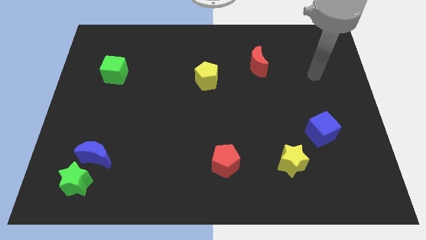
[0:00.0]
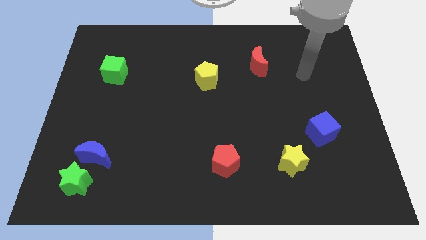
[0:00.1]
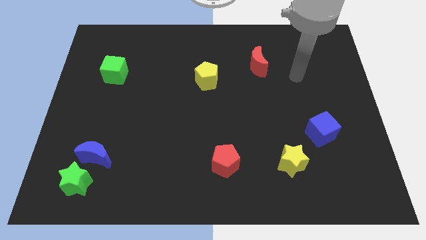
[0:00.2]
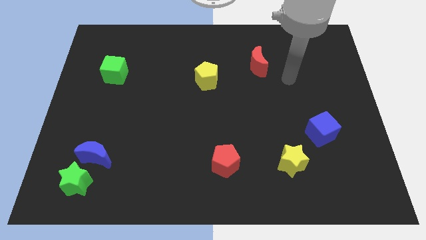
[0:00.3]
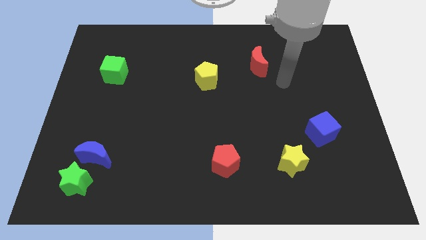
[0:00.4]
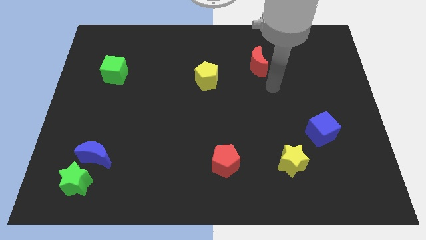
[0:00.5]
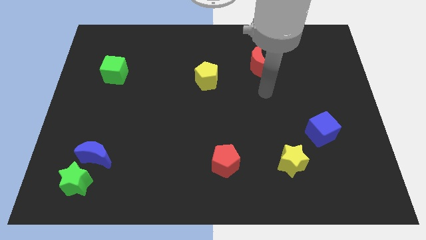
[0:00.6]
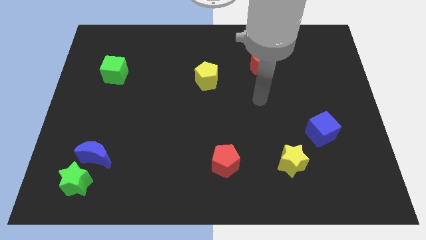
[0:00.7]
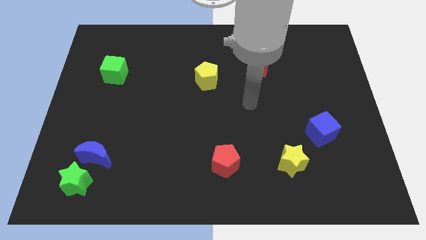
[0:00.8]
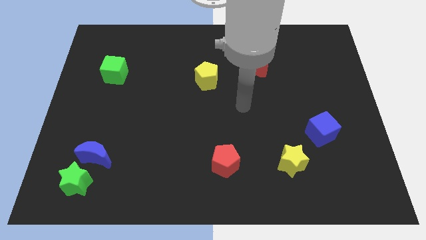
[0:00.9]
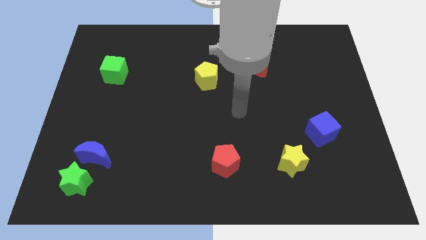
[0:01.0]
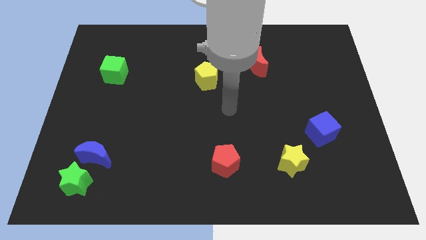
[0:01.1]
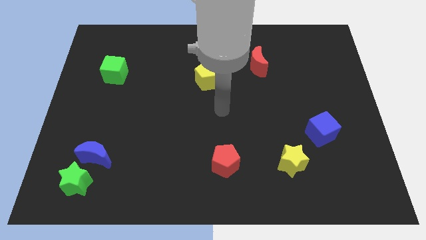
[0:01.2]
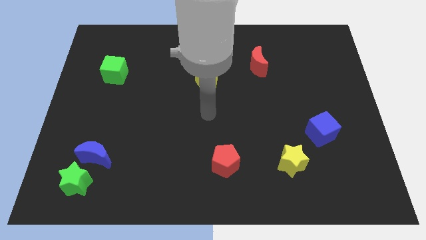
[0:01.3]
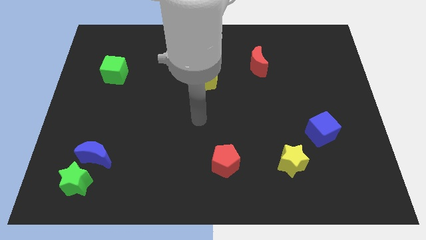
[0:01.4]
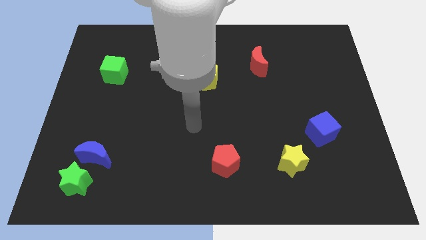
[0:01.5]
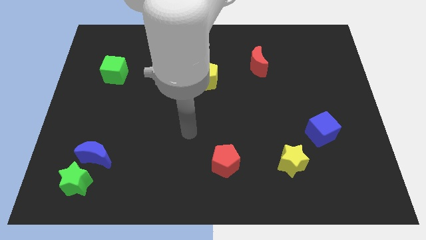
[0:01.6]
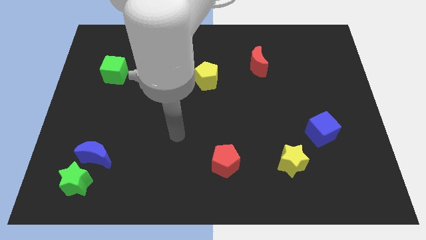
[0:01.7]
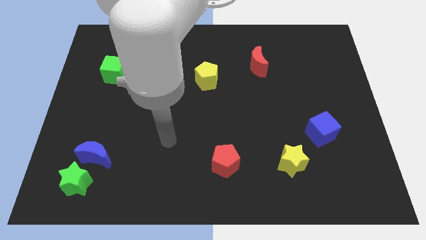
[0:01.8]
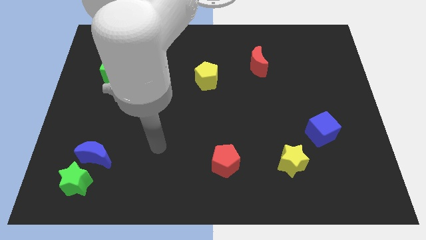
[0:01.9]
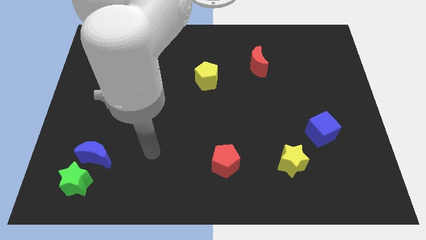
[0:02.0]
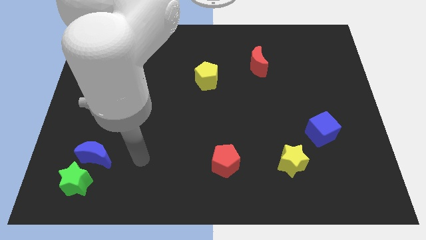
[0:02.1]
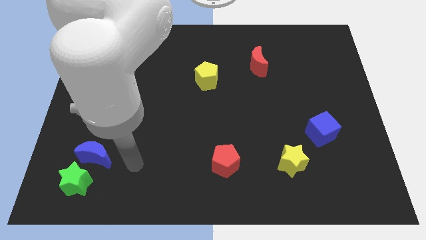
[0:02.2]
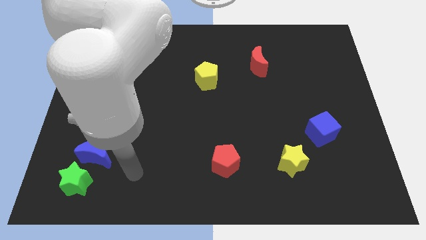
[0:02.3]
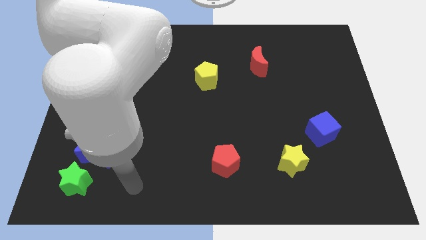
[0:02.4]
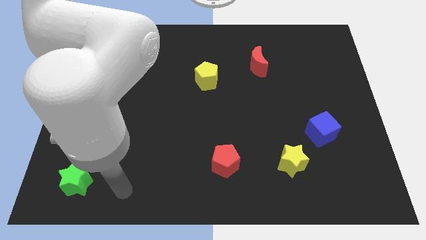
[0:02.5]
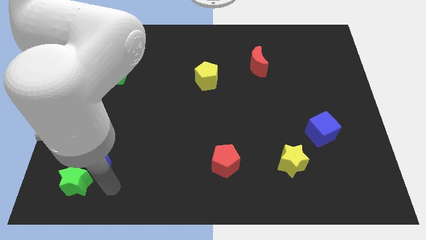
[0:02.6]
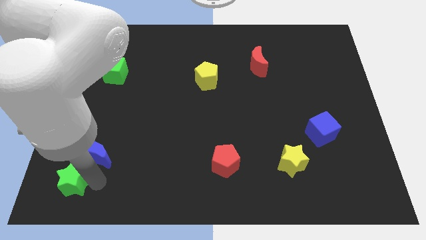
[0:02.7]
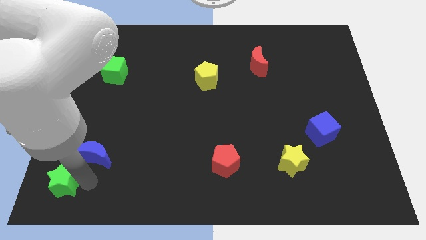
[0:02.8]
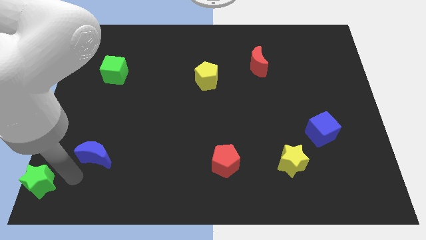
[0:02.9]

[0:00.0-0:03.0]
pull the blue moon apart from the green star

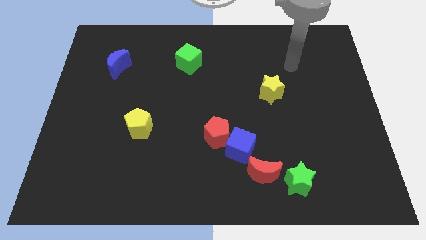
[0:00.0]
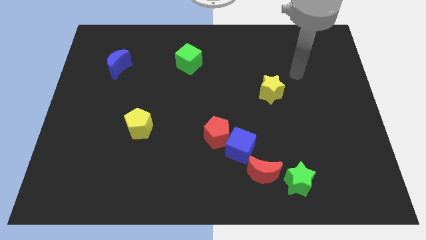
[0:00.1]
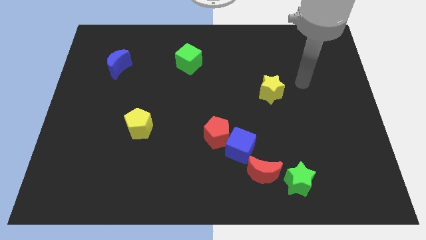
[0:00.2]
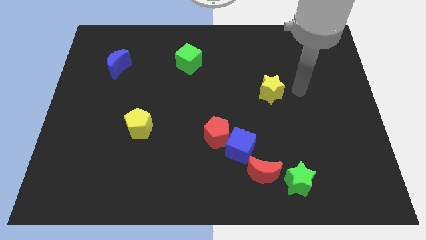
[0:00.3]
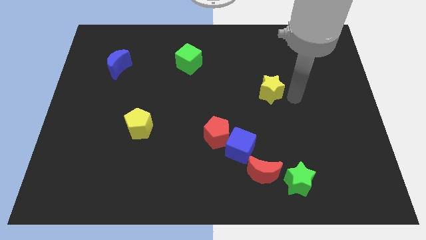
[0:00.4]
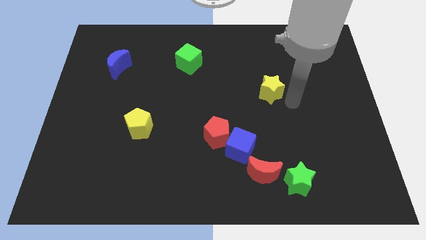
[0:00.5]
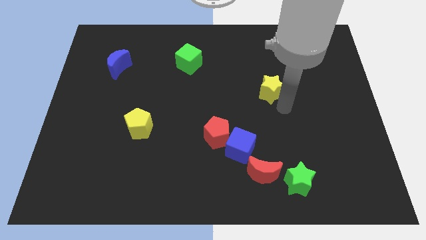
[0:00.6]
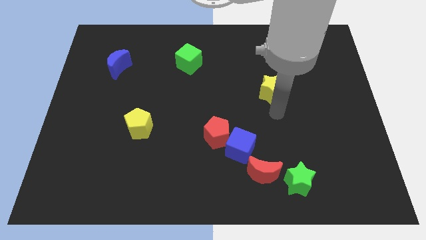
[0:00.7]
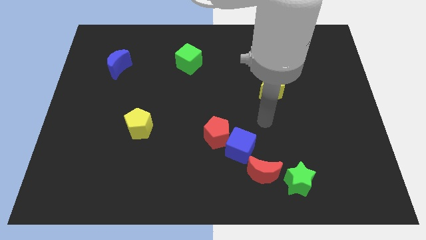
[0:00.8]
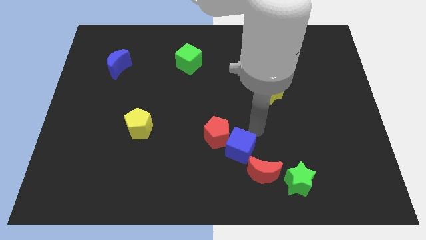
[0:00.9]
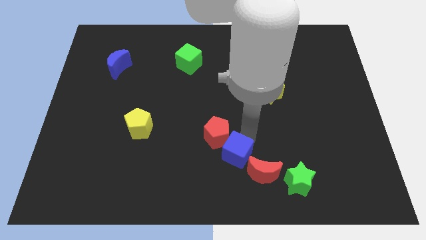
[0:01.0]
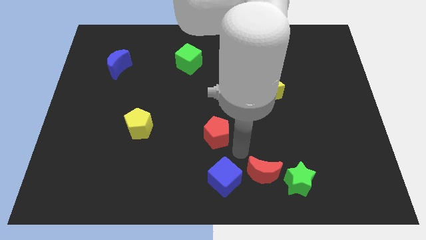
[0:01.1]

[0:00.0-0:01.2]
move the red pentagon away from the blue cube

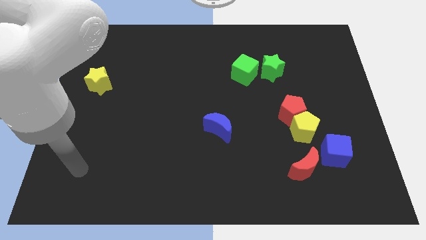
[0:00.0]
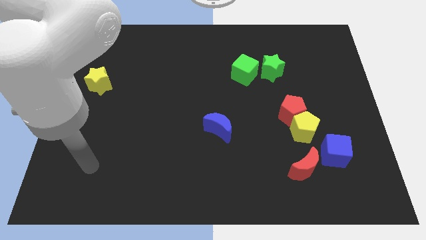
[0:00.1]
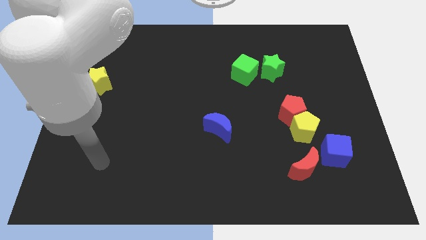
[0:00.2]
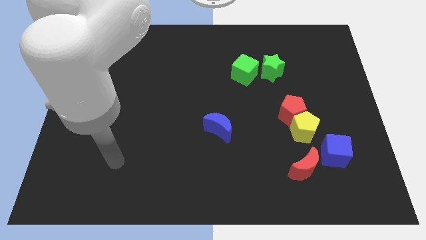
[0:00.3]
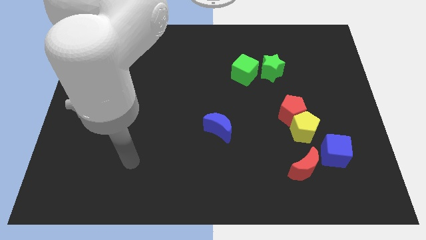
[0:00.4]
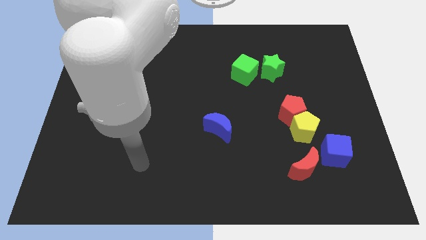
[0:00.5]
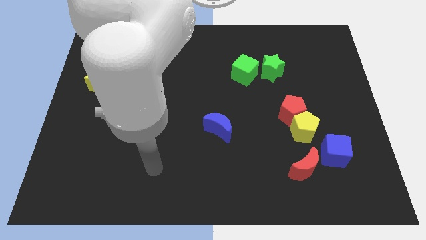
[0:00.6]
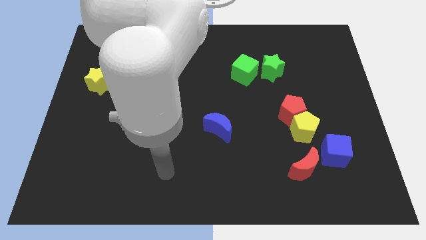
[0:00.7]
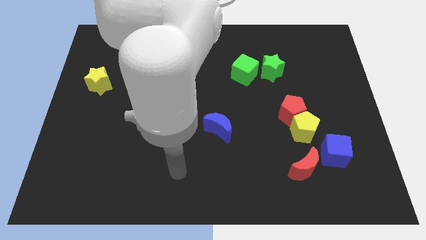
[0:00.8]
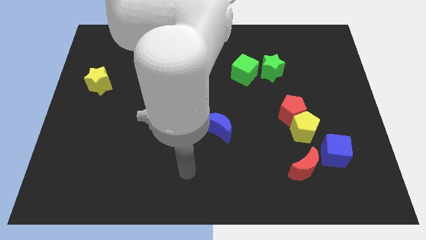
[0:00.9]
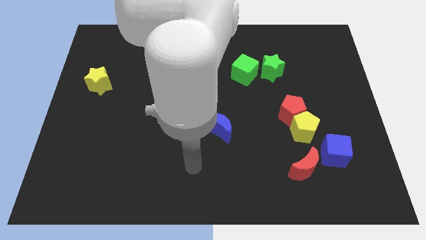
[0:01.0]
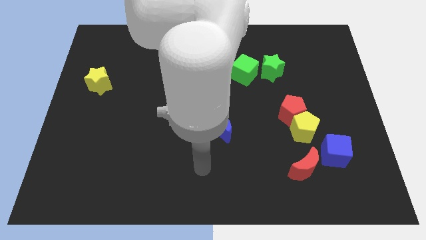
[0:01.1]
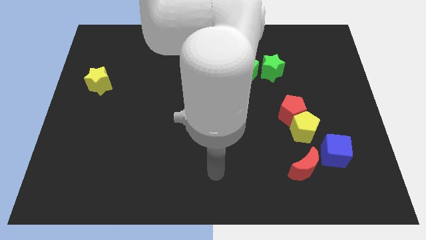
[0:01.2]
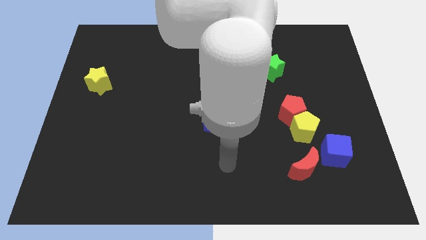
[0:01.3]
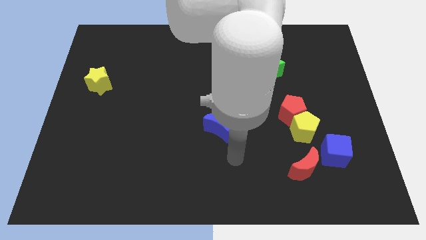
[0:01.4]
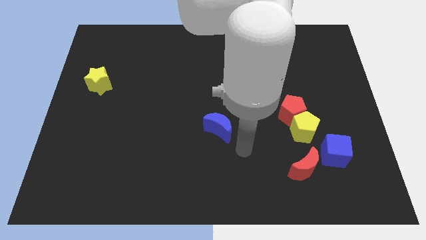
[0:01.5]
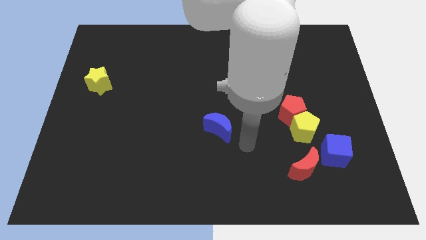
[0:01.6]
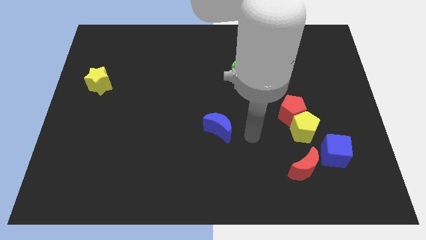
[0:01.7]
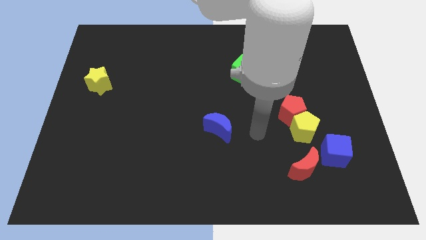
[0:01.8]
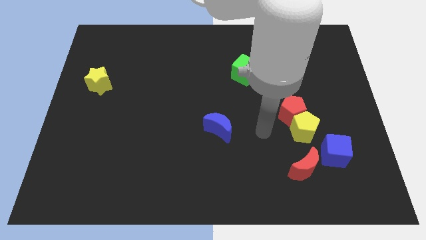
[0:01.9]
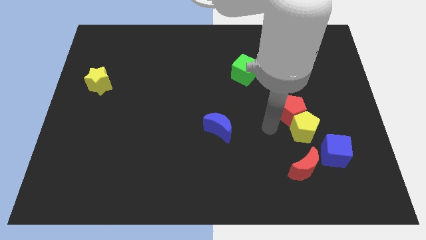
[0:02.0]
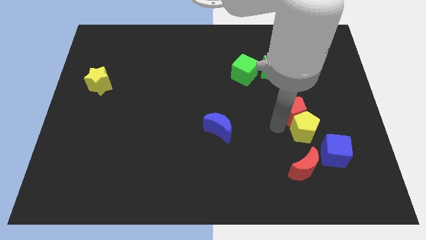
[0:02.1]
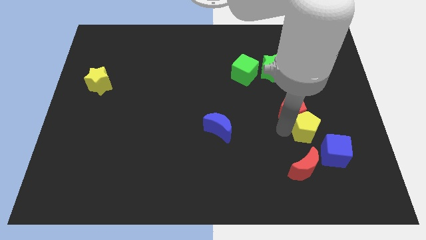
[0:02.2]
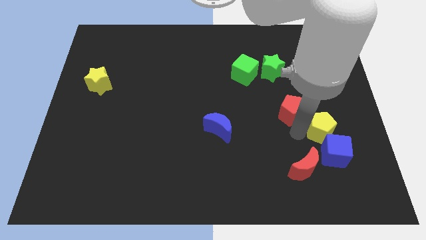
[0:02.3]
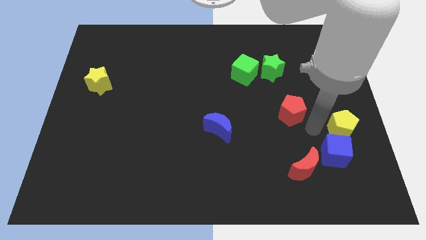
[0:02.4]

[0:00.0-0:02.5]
move the red pentagon away from the yellow pentagon

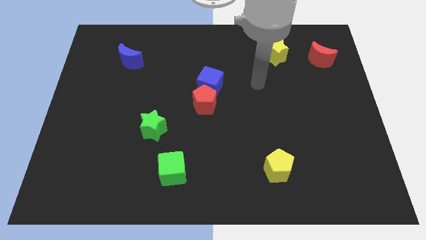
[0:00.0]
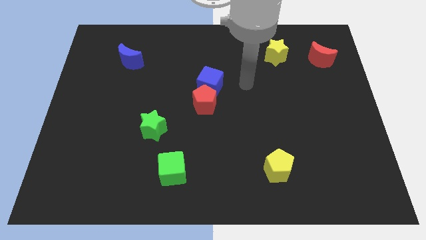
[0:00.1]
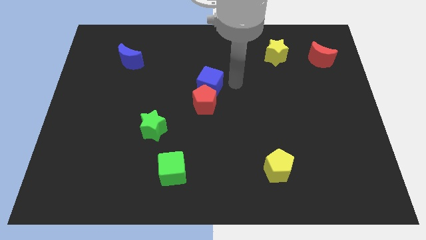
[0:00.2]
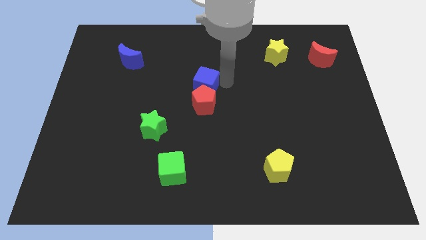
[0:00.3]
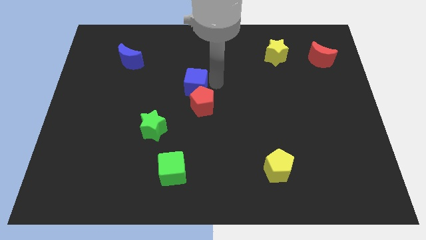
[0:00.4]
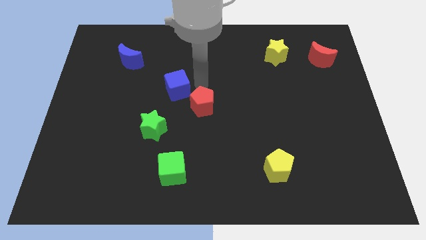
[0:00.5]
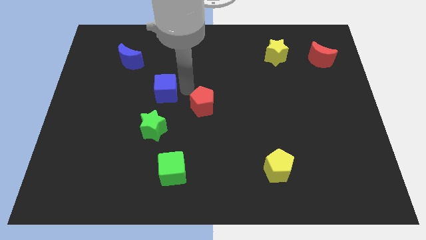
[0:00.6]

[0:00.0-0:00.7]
pull the red pentagon apart from the blue cube

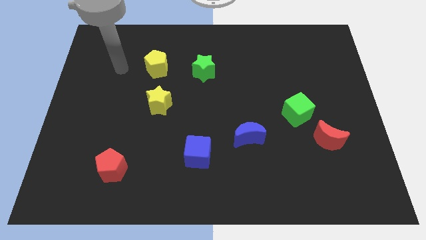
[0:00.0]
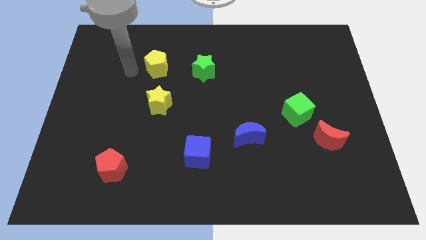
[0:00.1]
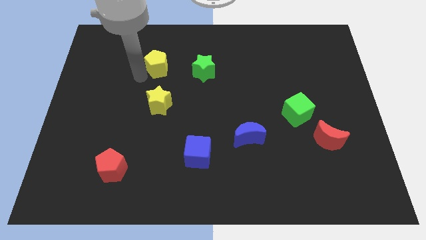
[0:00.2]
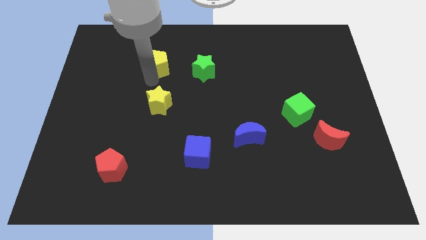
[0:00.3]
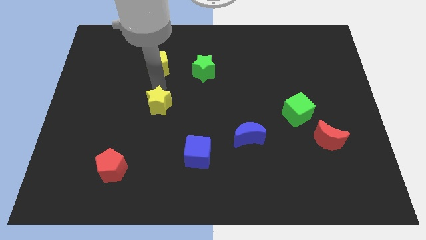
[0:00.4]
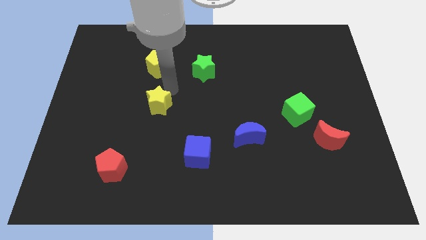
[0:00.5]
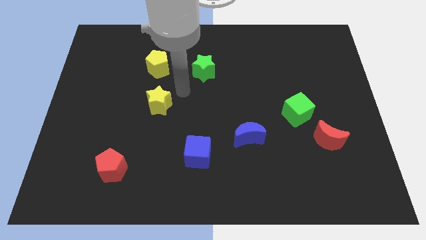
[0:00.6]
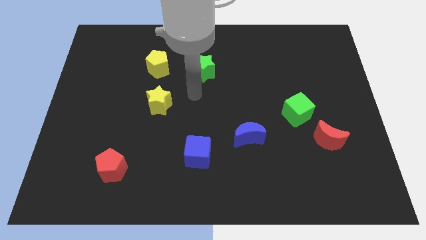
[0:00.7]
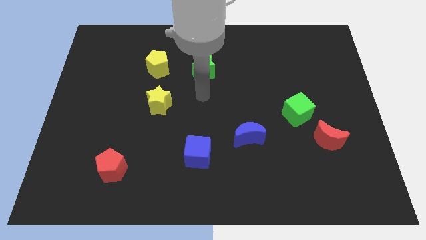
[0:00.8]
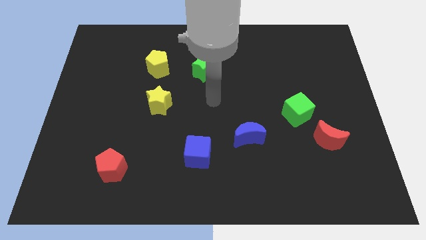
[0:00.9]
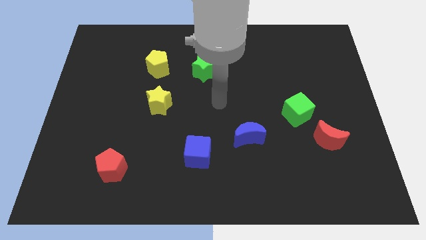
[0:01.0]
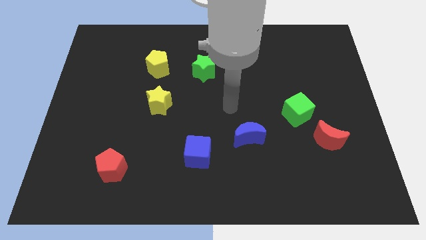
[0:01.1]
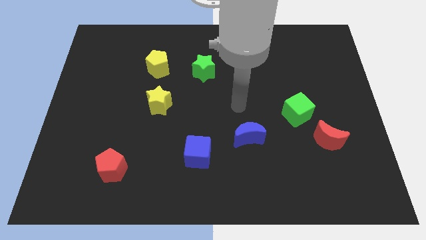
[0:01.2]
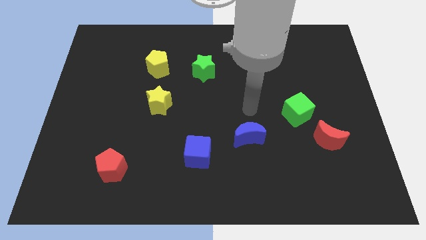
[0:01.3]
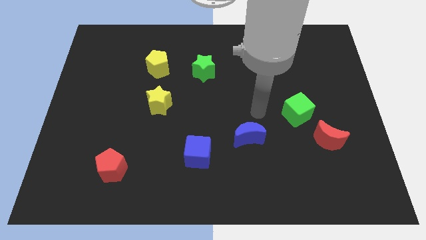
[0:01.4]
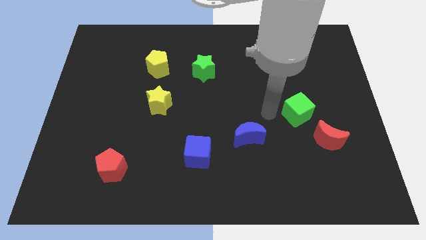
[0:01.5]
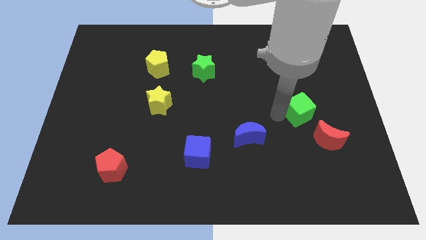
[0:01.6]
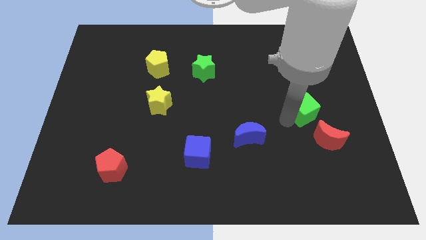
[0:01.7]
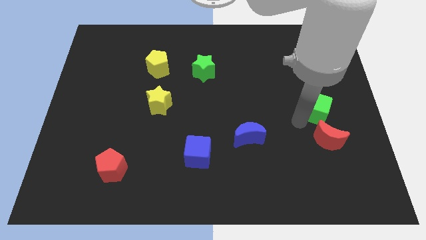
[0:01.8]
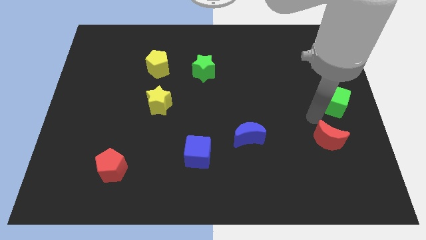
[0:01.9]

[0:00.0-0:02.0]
pull the red moon apart from the green cube
